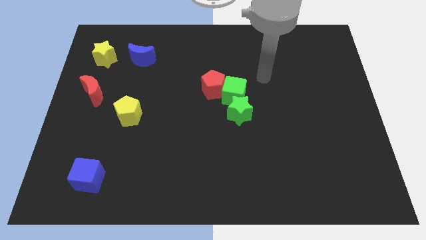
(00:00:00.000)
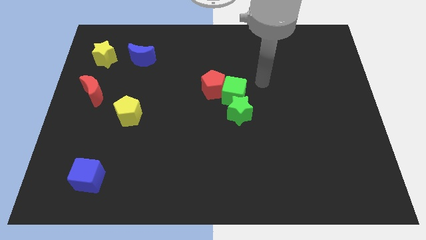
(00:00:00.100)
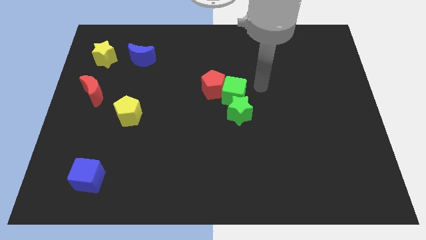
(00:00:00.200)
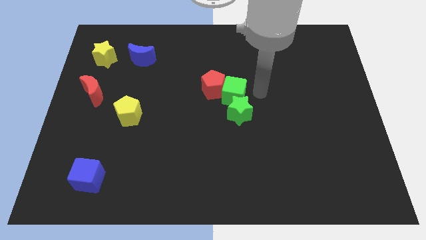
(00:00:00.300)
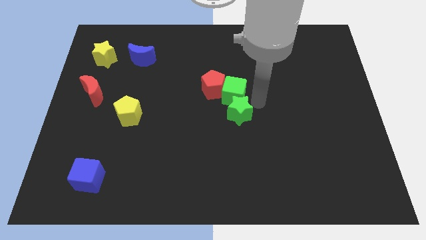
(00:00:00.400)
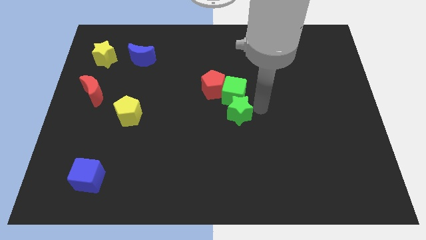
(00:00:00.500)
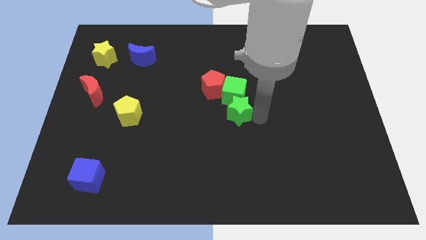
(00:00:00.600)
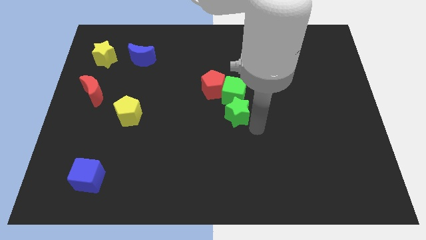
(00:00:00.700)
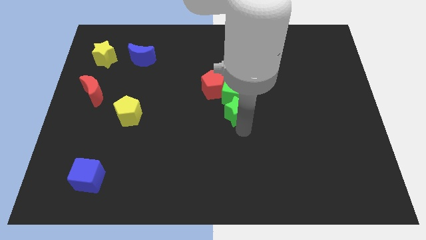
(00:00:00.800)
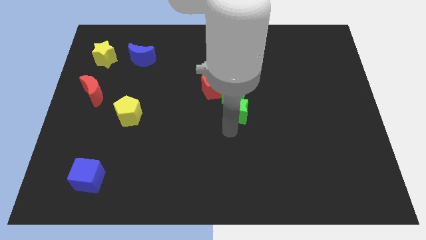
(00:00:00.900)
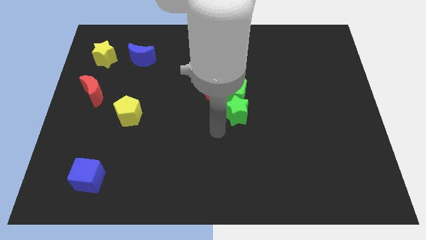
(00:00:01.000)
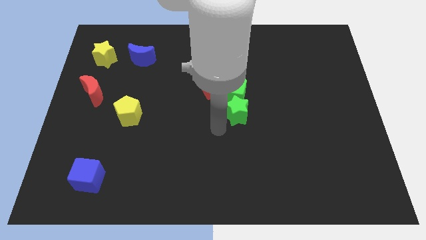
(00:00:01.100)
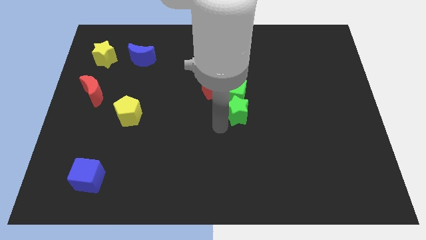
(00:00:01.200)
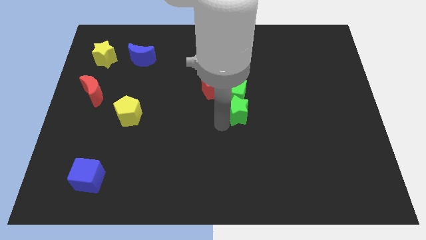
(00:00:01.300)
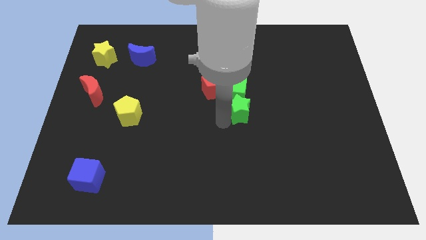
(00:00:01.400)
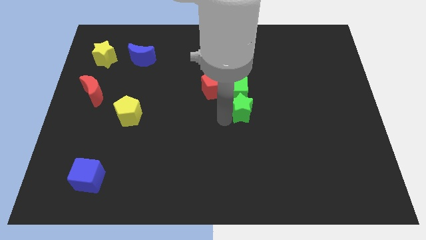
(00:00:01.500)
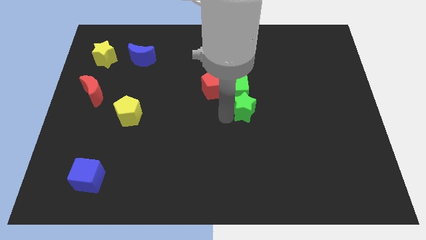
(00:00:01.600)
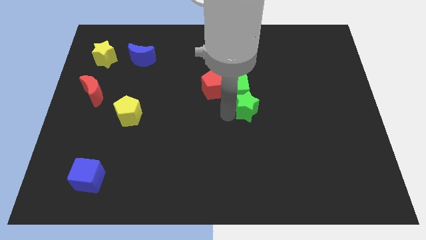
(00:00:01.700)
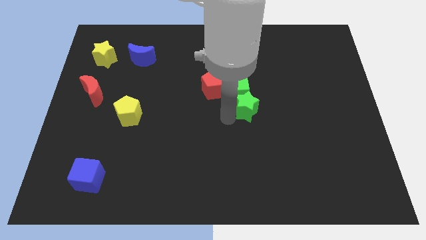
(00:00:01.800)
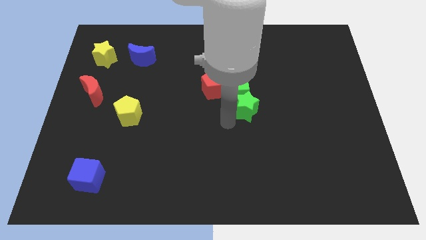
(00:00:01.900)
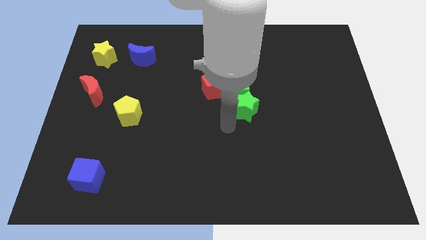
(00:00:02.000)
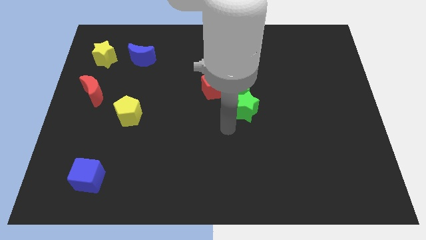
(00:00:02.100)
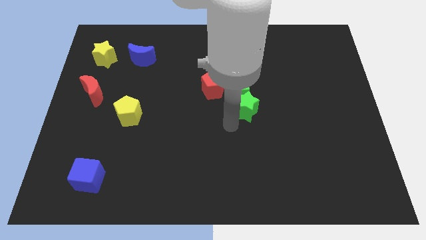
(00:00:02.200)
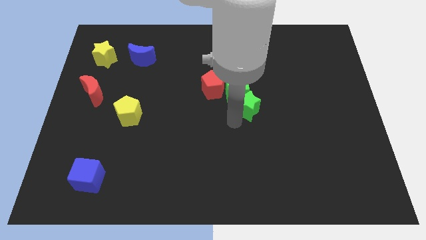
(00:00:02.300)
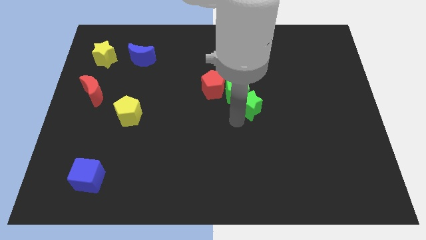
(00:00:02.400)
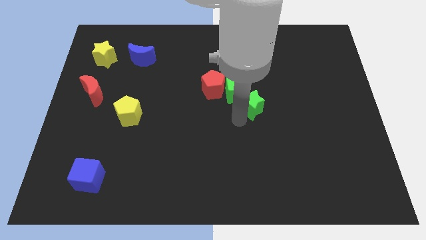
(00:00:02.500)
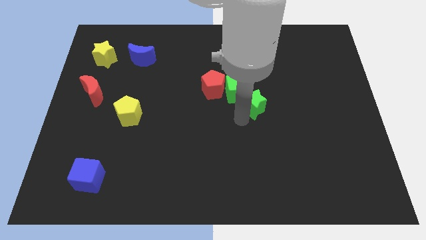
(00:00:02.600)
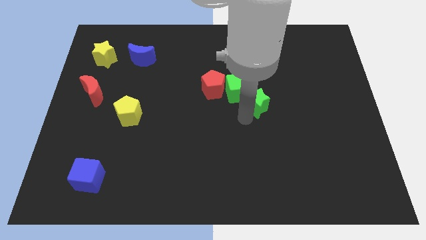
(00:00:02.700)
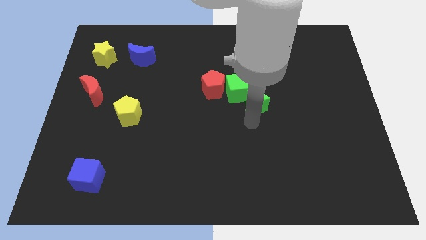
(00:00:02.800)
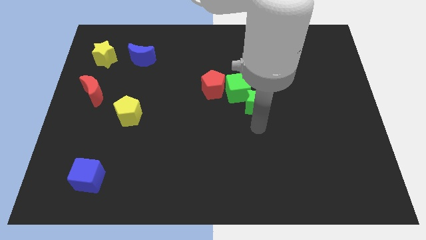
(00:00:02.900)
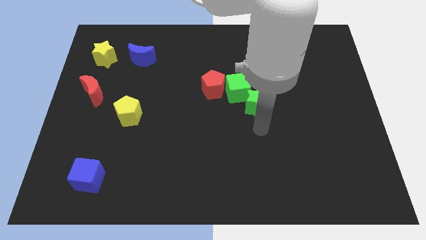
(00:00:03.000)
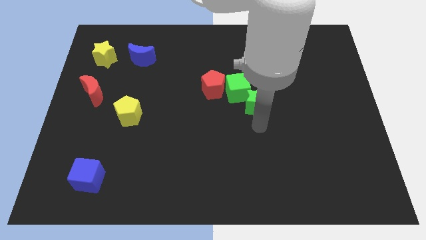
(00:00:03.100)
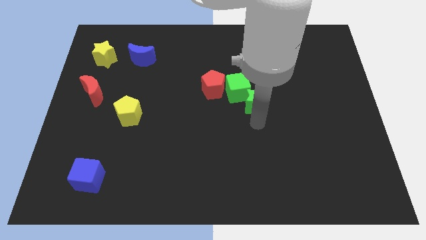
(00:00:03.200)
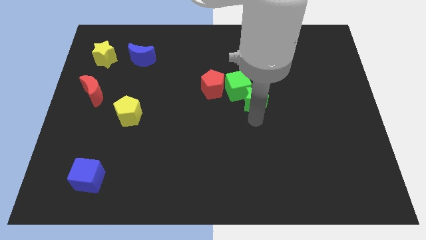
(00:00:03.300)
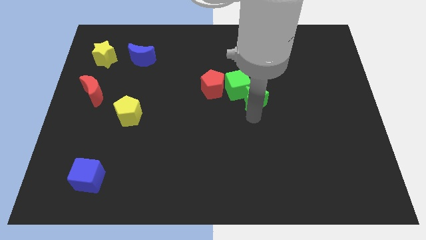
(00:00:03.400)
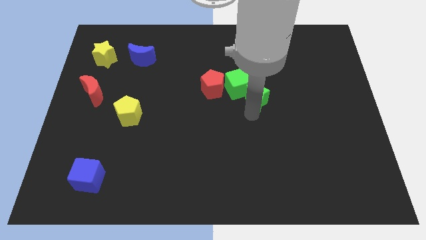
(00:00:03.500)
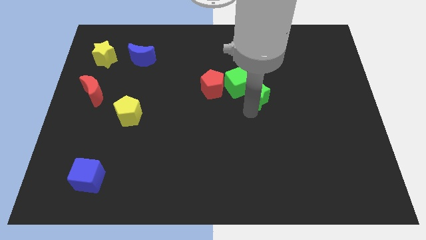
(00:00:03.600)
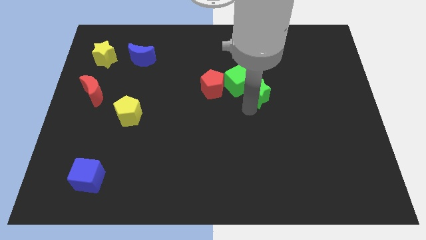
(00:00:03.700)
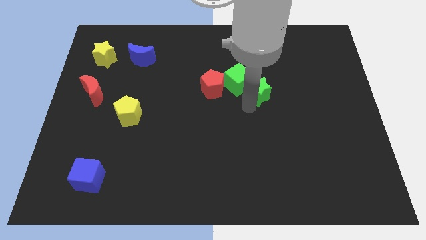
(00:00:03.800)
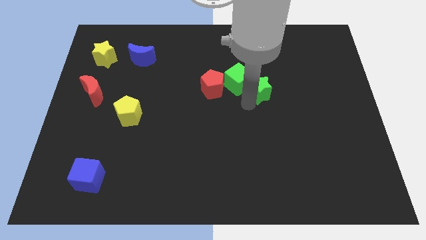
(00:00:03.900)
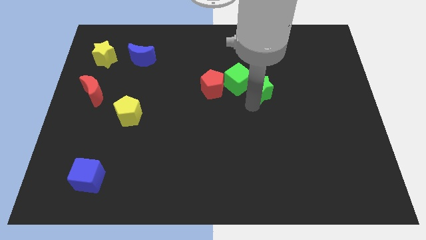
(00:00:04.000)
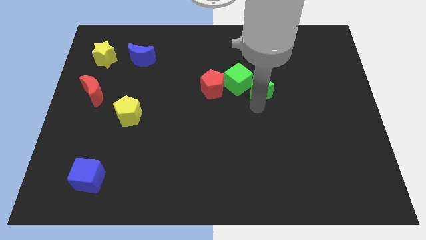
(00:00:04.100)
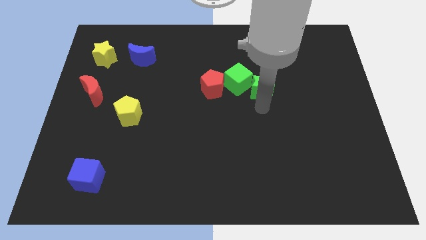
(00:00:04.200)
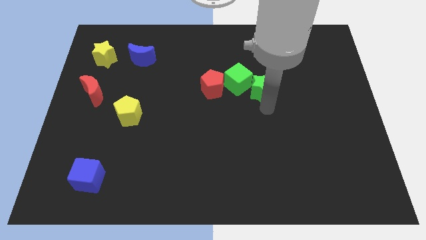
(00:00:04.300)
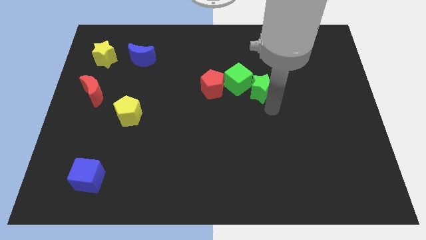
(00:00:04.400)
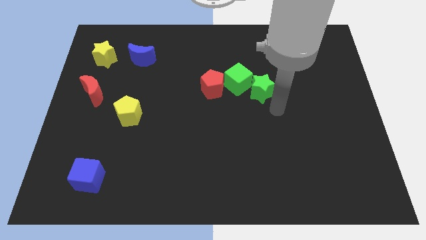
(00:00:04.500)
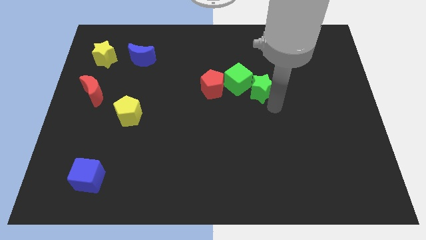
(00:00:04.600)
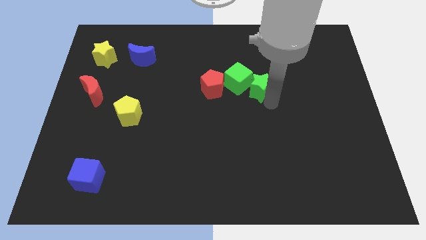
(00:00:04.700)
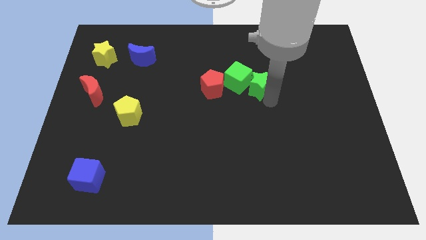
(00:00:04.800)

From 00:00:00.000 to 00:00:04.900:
push the green star somewhat upwards

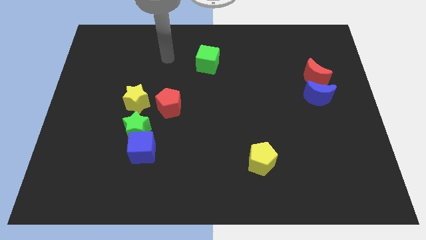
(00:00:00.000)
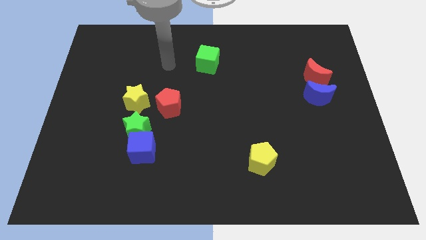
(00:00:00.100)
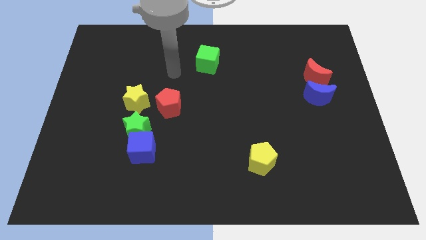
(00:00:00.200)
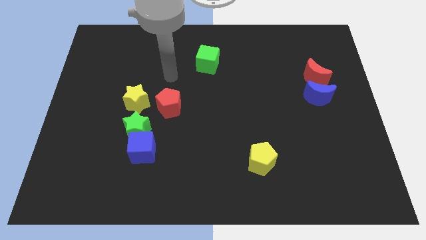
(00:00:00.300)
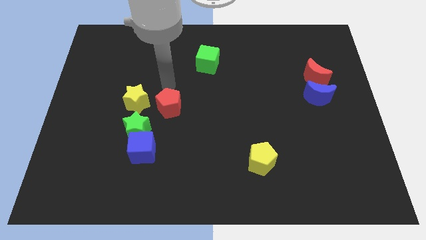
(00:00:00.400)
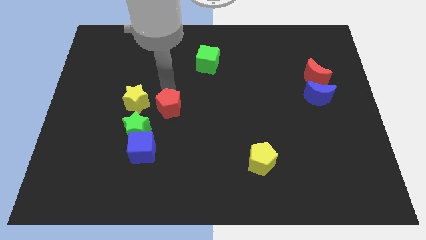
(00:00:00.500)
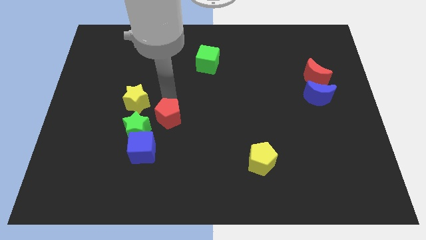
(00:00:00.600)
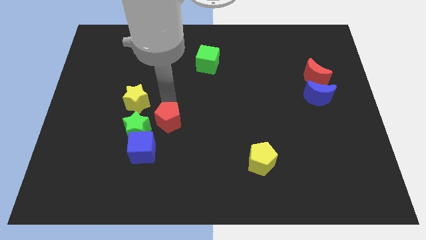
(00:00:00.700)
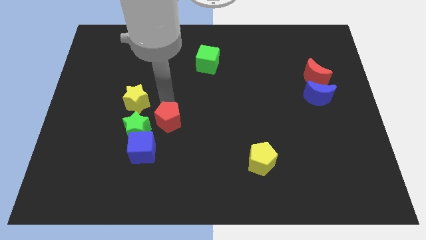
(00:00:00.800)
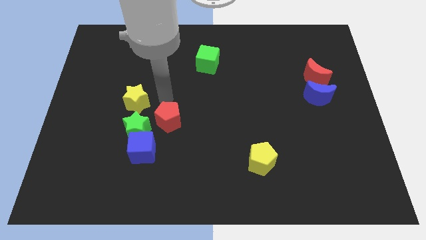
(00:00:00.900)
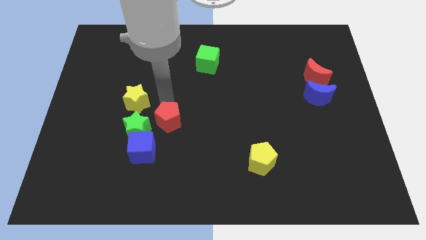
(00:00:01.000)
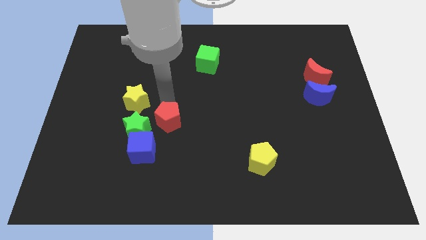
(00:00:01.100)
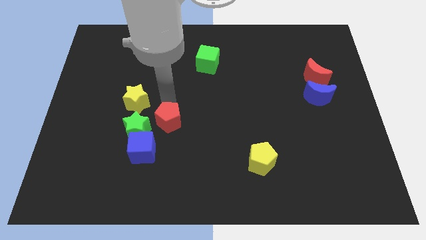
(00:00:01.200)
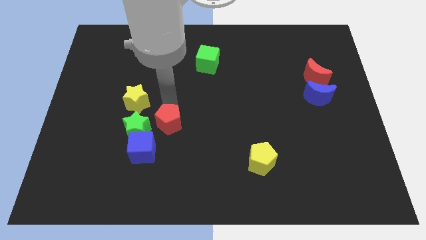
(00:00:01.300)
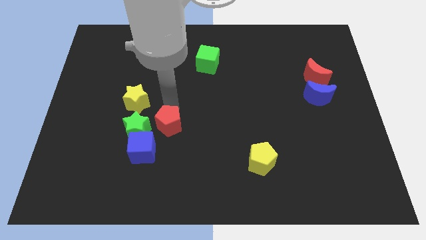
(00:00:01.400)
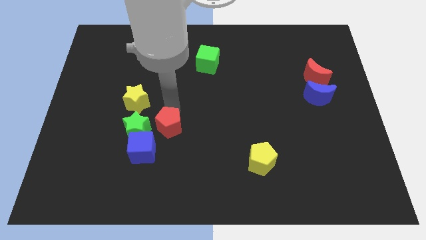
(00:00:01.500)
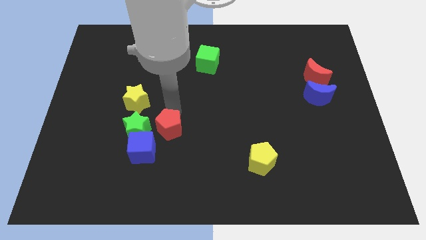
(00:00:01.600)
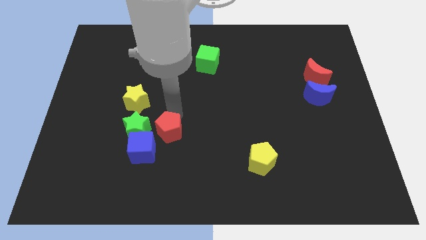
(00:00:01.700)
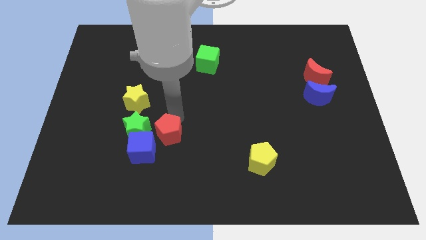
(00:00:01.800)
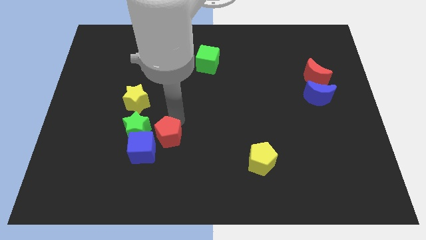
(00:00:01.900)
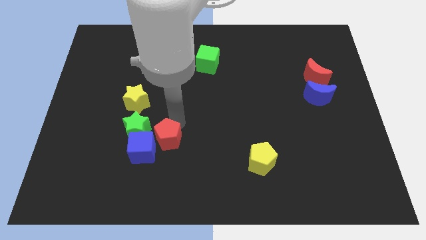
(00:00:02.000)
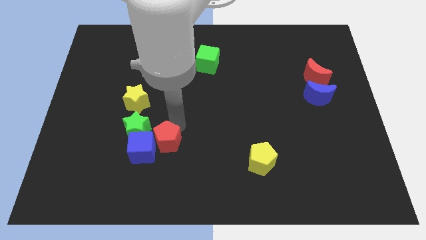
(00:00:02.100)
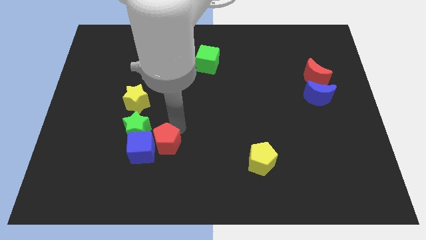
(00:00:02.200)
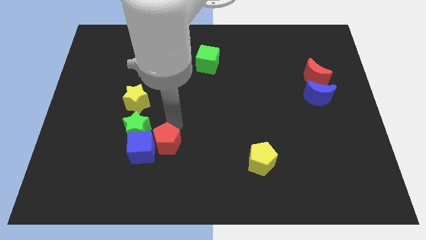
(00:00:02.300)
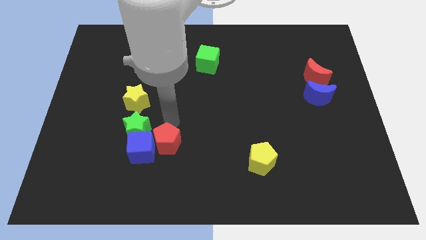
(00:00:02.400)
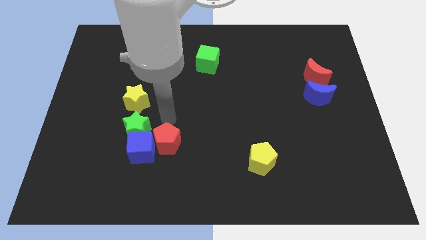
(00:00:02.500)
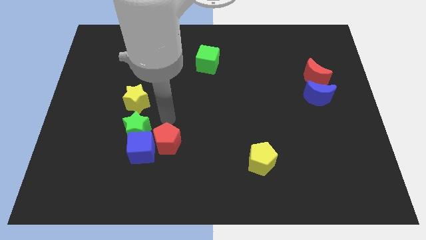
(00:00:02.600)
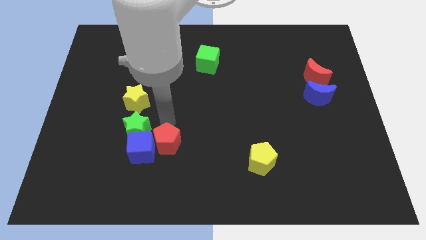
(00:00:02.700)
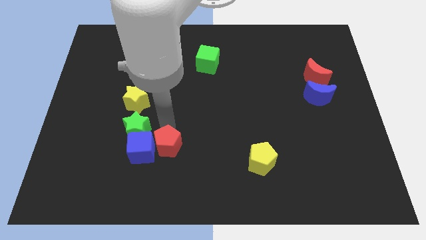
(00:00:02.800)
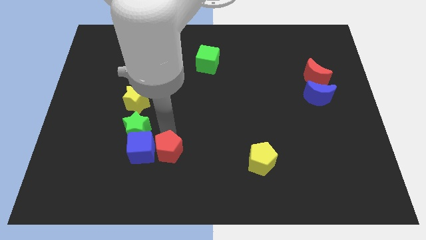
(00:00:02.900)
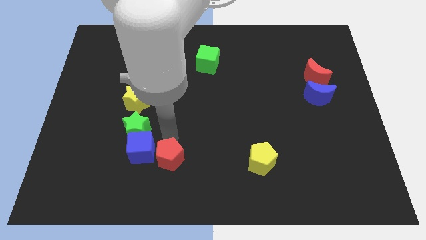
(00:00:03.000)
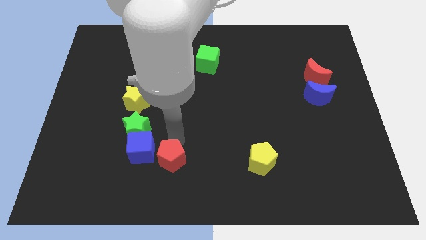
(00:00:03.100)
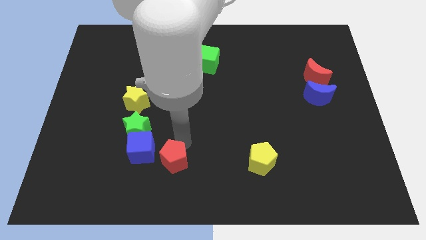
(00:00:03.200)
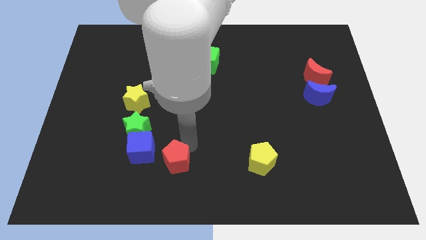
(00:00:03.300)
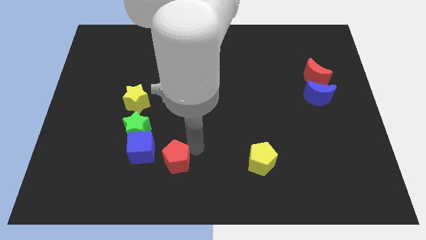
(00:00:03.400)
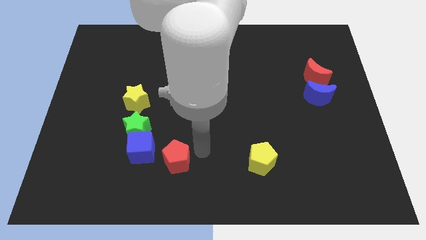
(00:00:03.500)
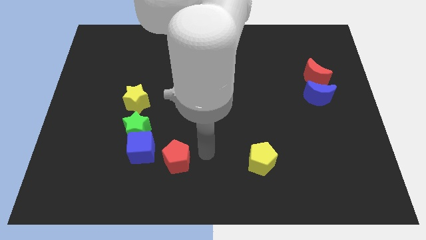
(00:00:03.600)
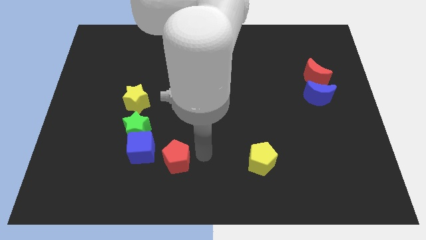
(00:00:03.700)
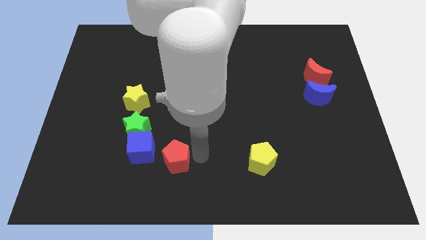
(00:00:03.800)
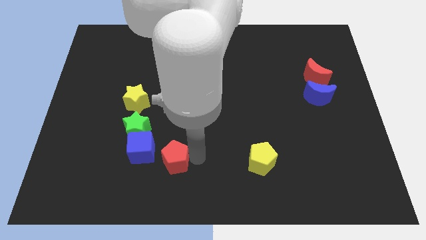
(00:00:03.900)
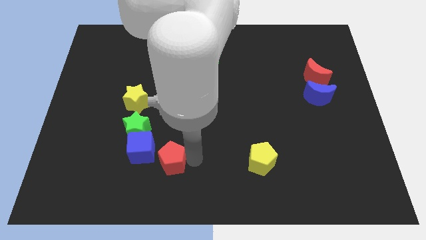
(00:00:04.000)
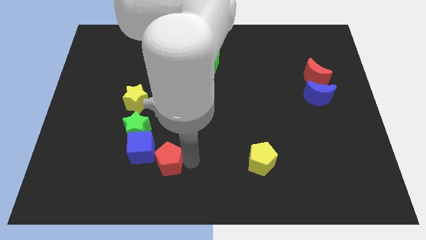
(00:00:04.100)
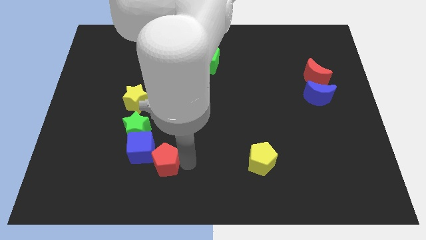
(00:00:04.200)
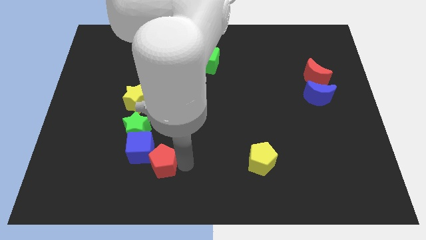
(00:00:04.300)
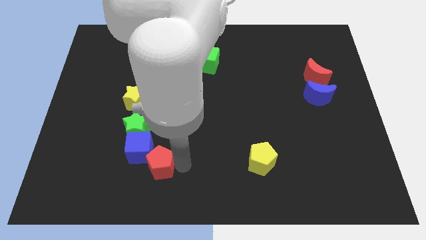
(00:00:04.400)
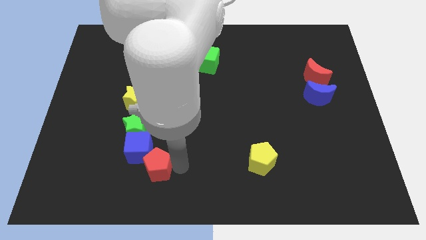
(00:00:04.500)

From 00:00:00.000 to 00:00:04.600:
slide the red pentagon diagonally downwards and to the left somewhat
